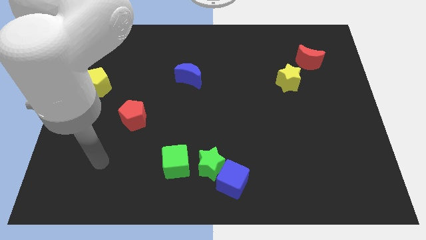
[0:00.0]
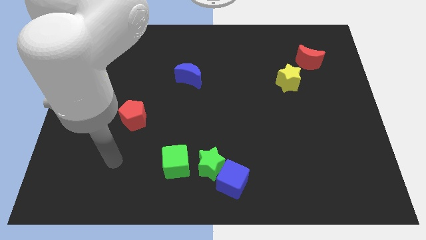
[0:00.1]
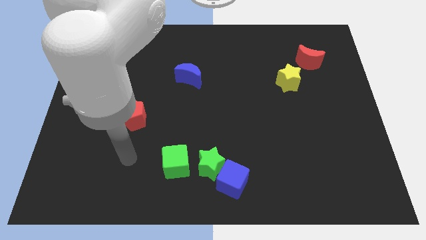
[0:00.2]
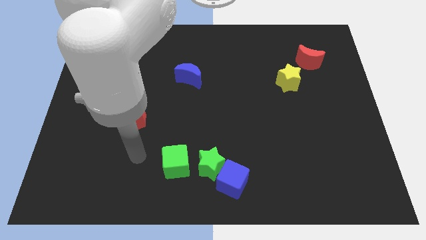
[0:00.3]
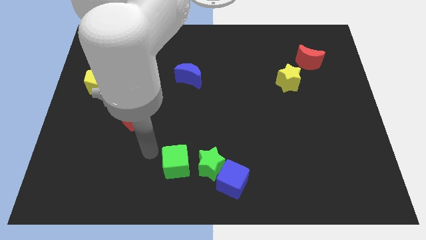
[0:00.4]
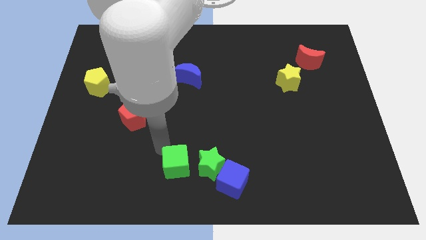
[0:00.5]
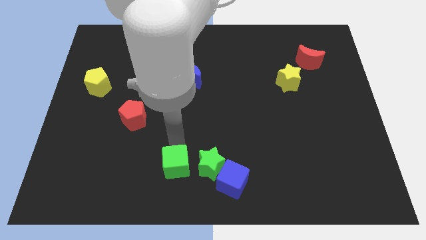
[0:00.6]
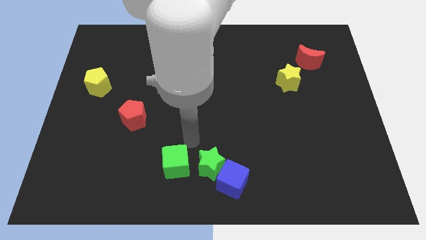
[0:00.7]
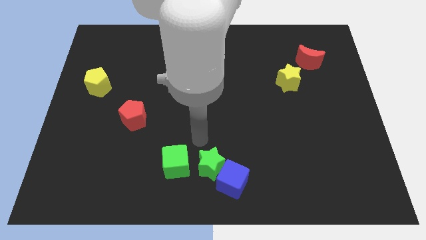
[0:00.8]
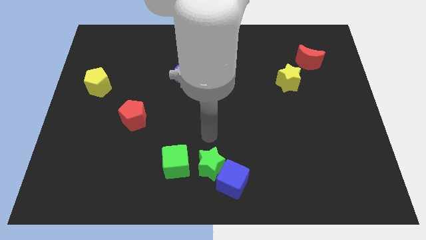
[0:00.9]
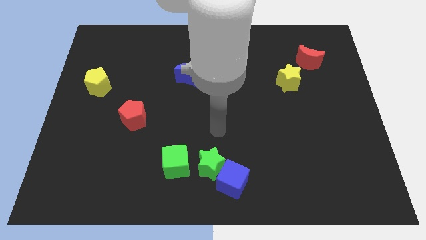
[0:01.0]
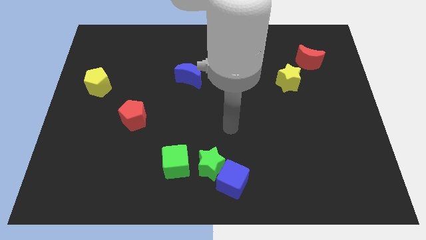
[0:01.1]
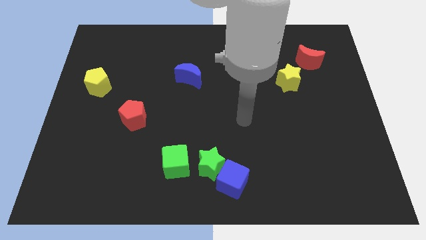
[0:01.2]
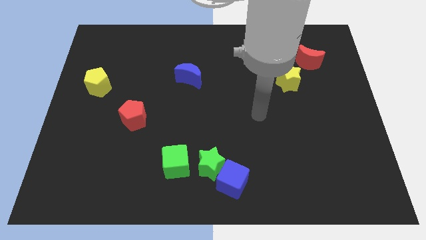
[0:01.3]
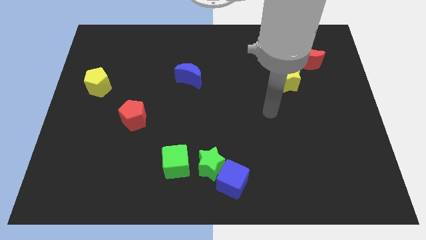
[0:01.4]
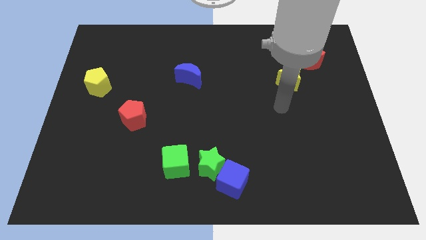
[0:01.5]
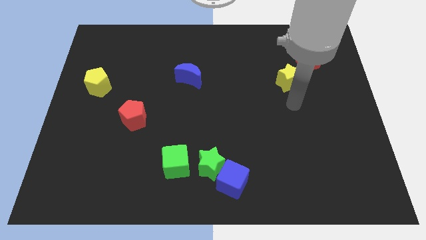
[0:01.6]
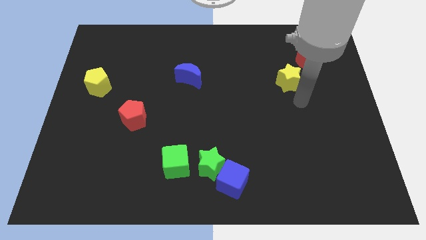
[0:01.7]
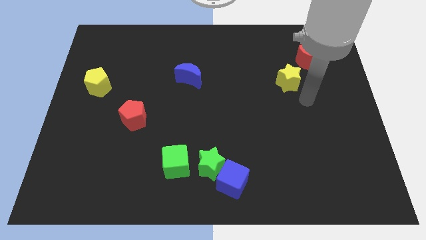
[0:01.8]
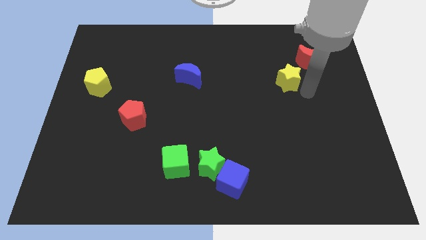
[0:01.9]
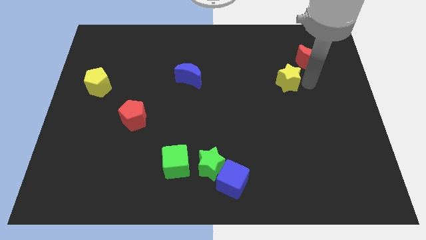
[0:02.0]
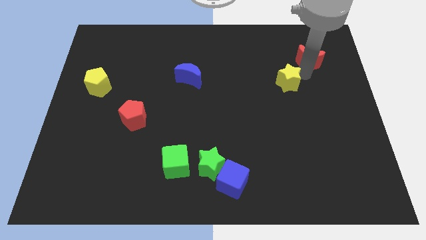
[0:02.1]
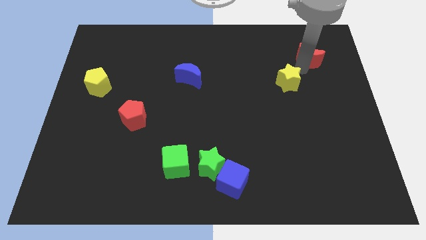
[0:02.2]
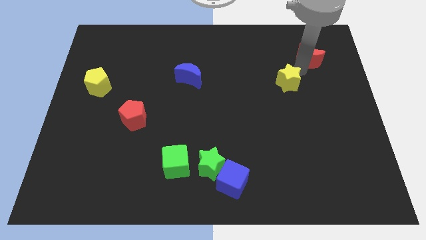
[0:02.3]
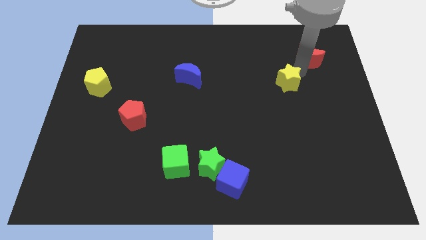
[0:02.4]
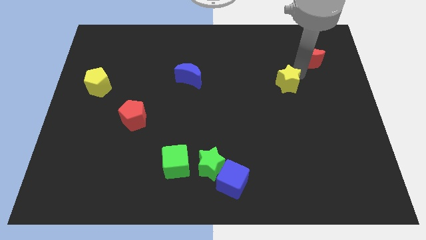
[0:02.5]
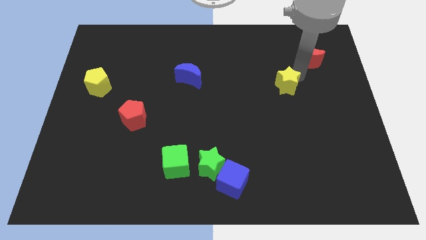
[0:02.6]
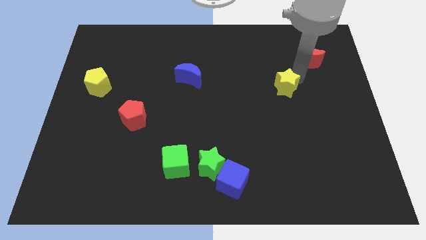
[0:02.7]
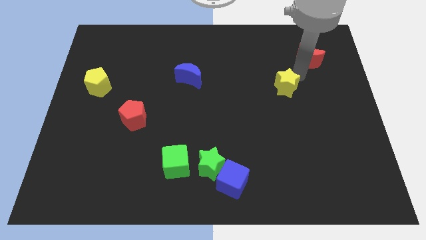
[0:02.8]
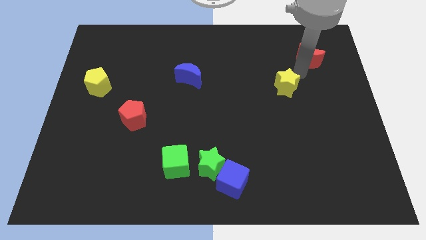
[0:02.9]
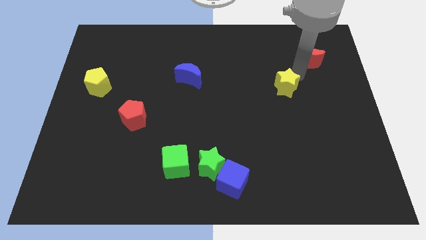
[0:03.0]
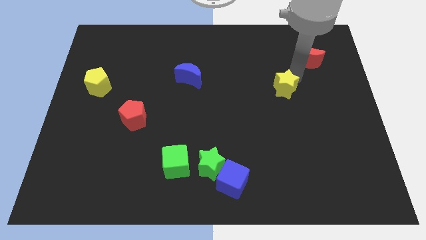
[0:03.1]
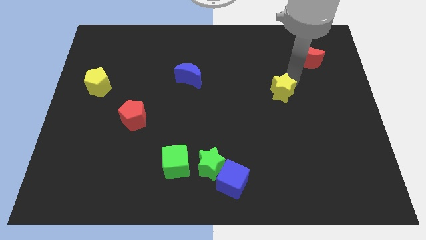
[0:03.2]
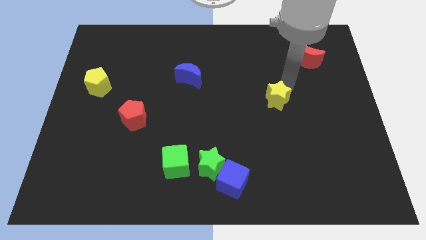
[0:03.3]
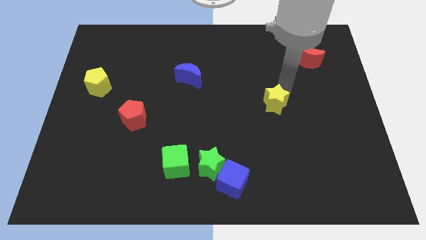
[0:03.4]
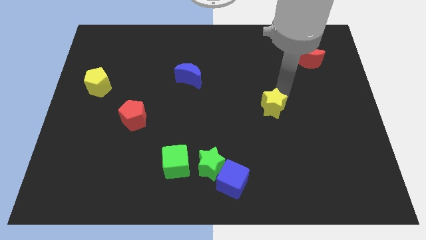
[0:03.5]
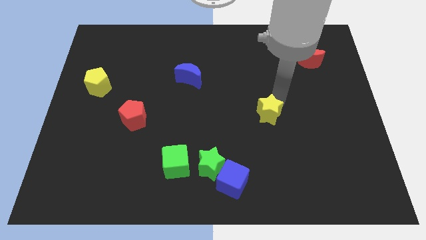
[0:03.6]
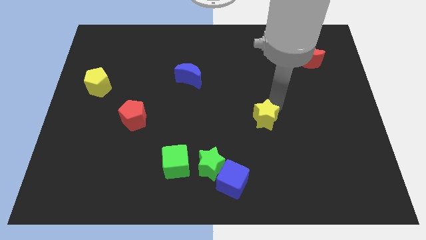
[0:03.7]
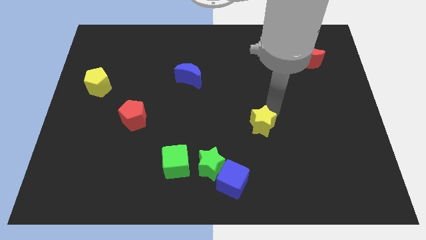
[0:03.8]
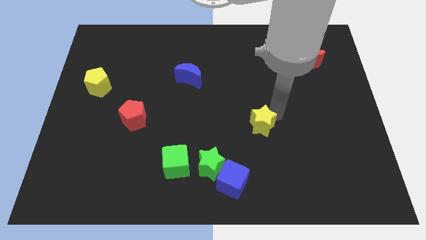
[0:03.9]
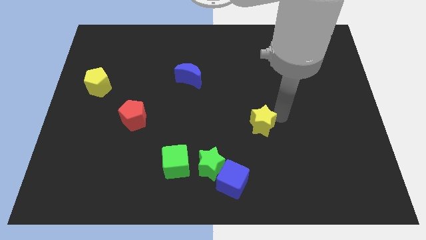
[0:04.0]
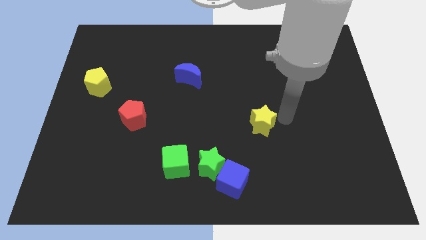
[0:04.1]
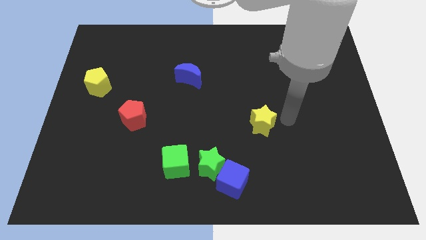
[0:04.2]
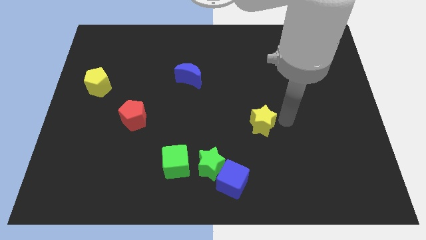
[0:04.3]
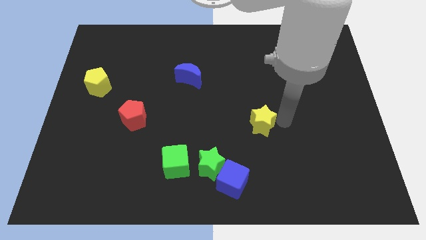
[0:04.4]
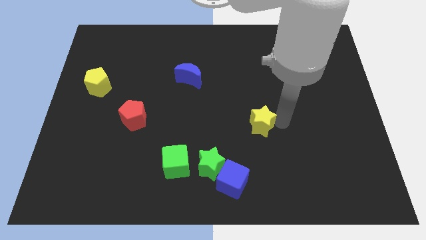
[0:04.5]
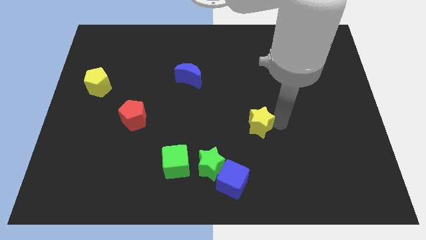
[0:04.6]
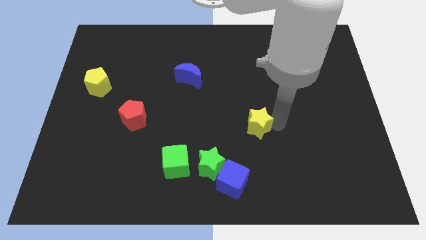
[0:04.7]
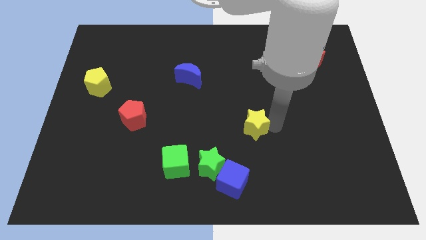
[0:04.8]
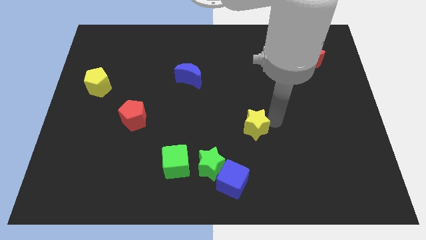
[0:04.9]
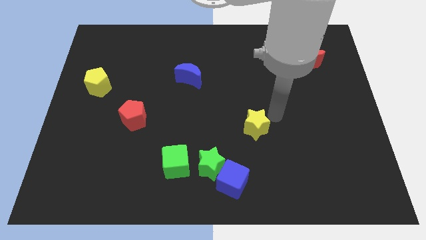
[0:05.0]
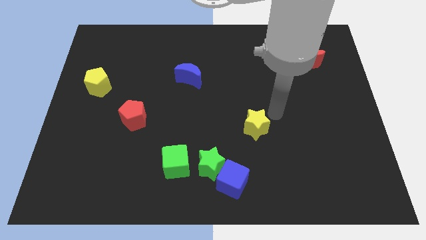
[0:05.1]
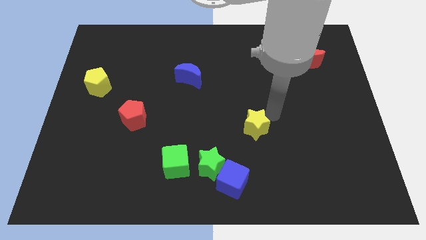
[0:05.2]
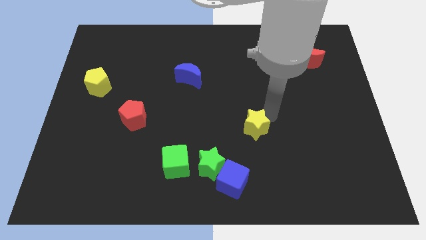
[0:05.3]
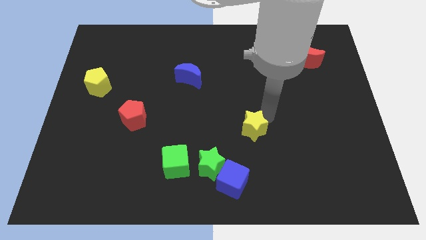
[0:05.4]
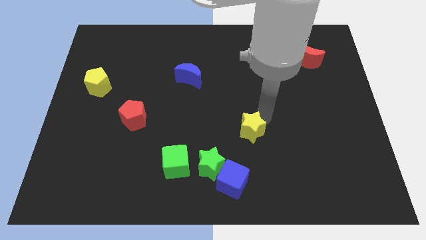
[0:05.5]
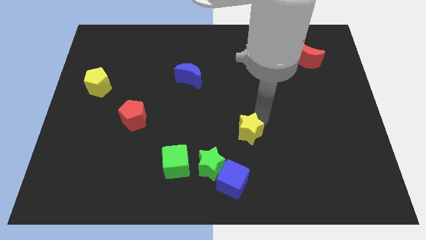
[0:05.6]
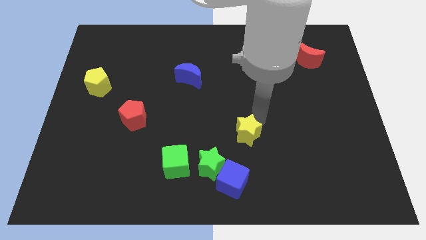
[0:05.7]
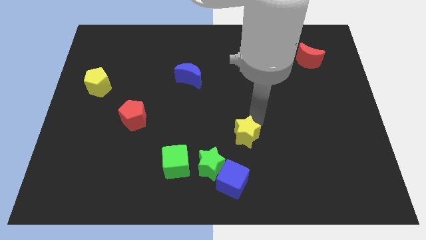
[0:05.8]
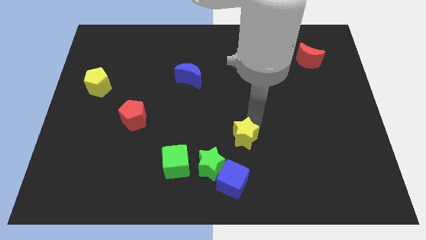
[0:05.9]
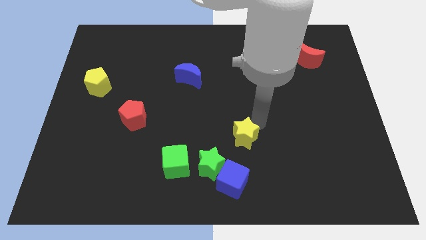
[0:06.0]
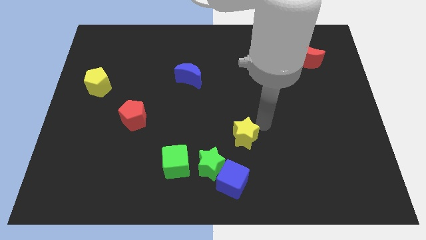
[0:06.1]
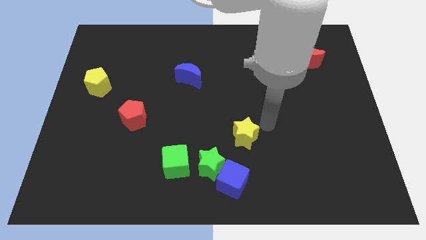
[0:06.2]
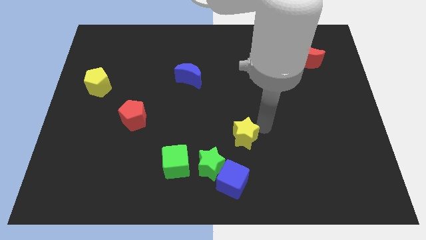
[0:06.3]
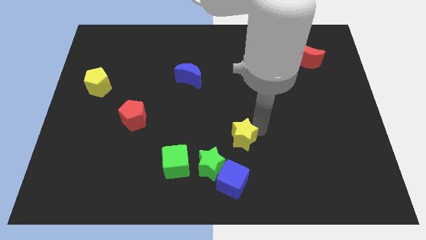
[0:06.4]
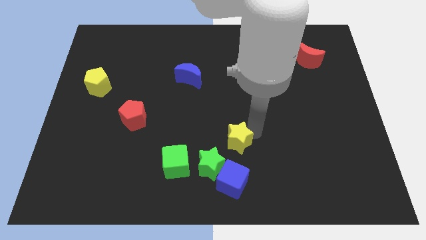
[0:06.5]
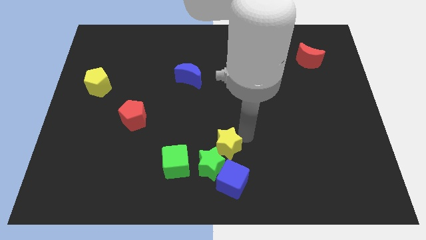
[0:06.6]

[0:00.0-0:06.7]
put the yellow star next to the green star

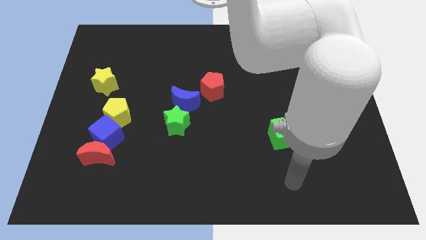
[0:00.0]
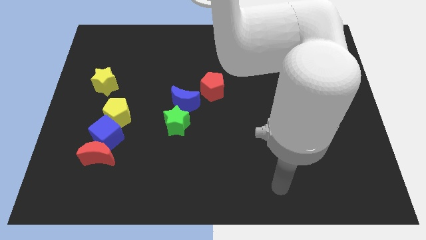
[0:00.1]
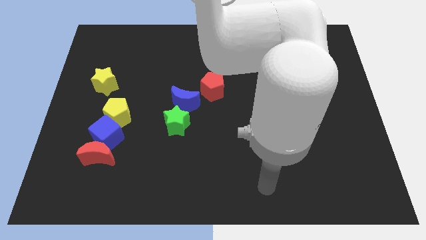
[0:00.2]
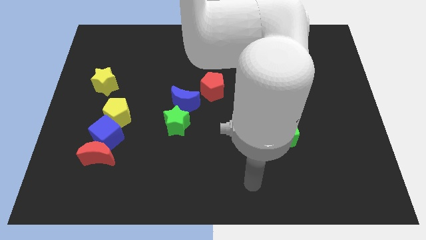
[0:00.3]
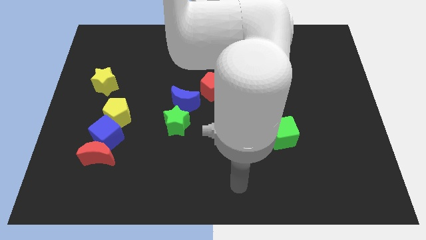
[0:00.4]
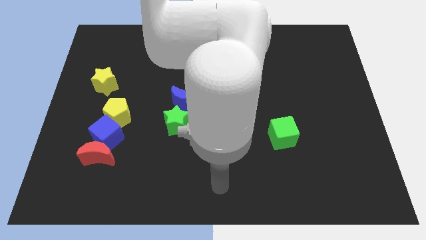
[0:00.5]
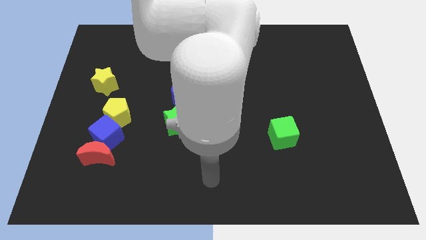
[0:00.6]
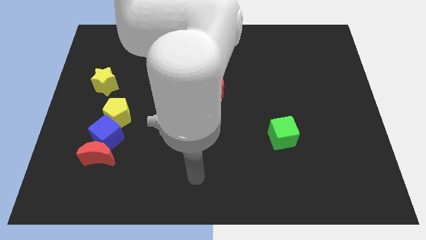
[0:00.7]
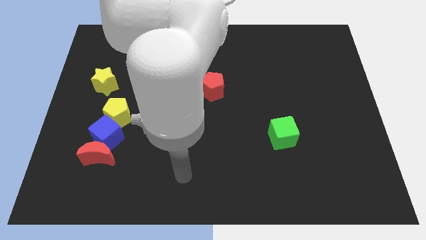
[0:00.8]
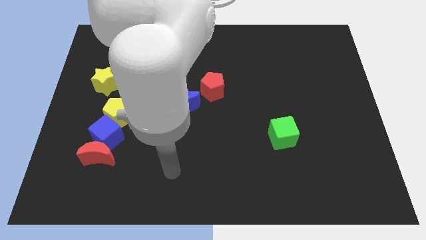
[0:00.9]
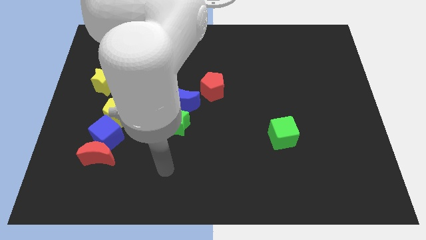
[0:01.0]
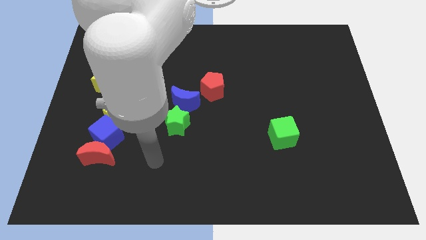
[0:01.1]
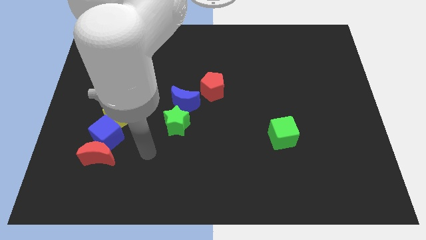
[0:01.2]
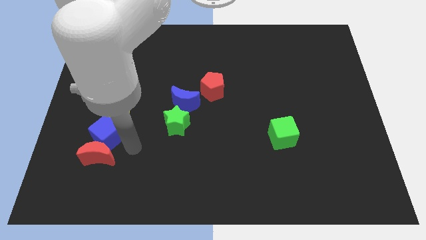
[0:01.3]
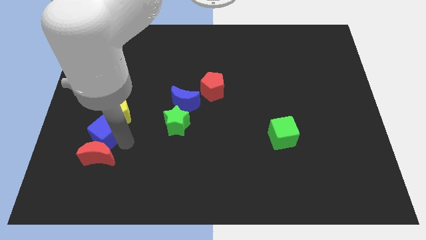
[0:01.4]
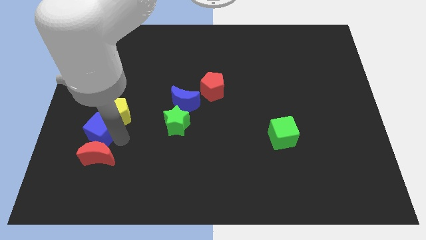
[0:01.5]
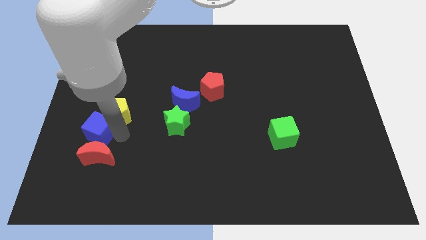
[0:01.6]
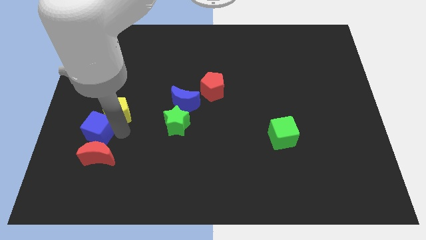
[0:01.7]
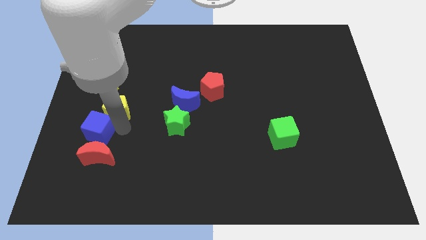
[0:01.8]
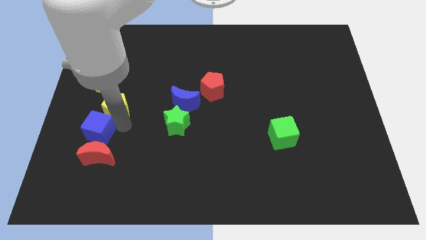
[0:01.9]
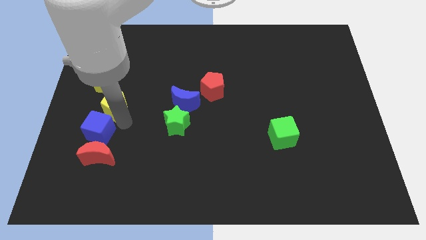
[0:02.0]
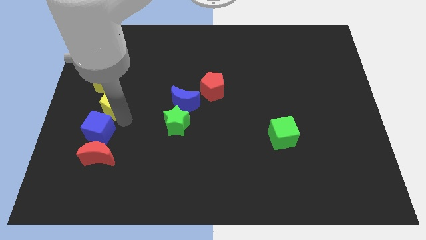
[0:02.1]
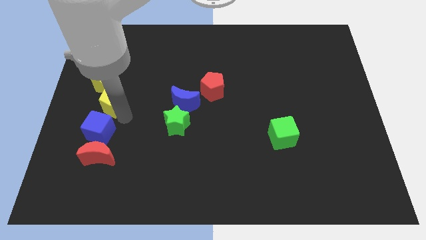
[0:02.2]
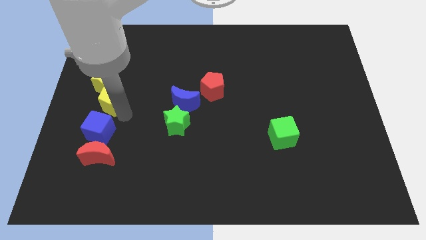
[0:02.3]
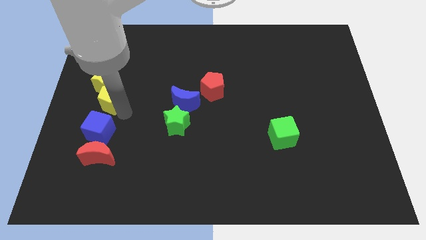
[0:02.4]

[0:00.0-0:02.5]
move the yellow pentagon close to the yellow star
